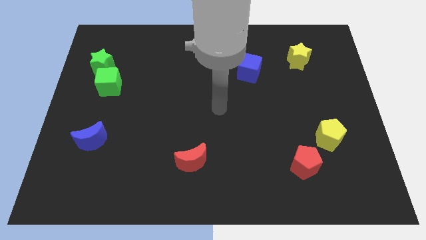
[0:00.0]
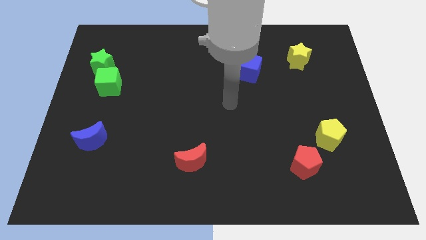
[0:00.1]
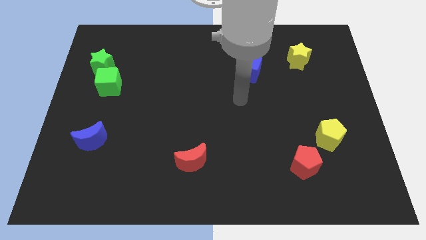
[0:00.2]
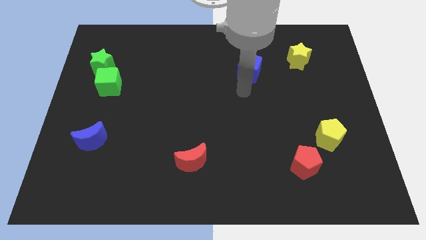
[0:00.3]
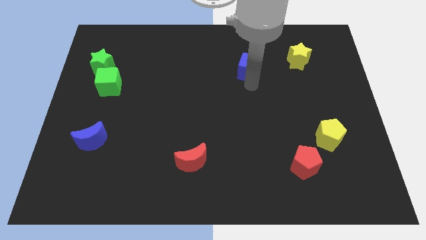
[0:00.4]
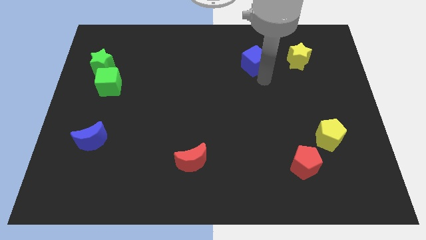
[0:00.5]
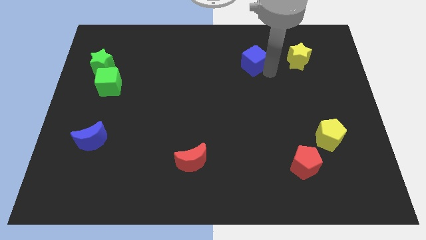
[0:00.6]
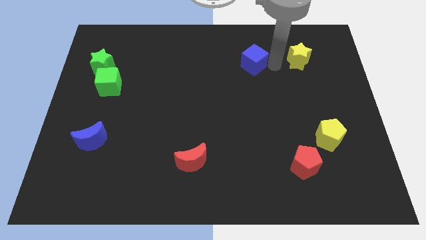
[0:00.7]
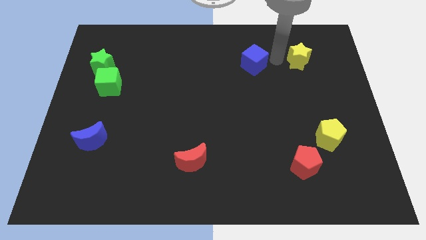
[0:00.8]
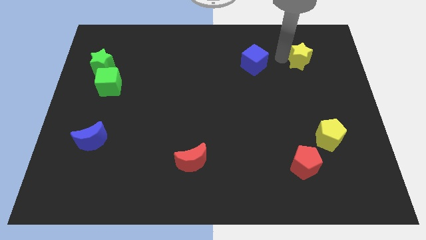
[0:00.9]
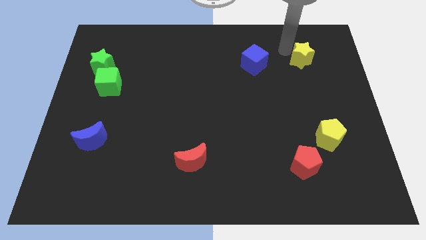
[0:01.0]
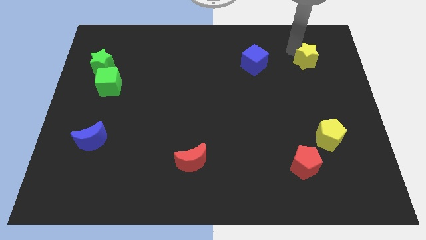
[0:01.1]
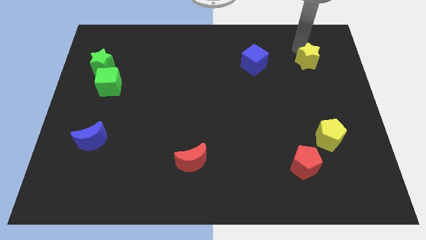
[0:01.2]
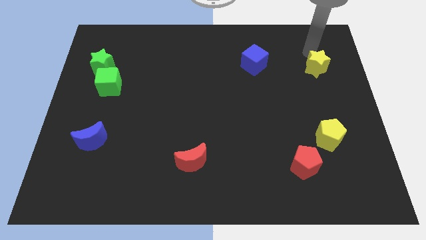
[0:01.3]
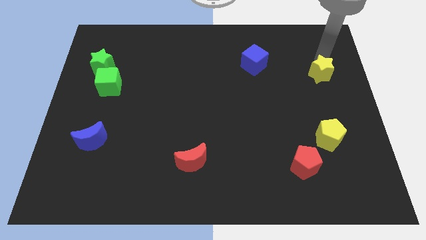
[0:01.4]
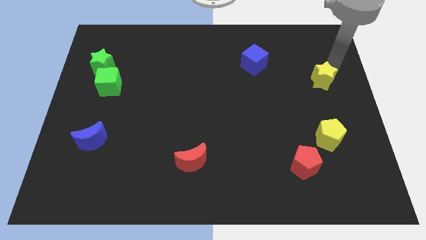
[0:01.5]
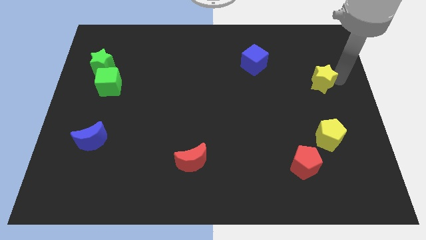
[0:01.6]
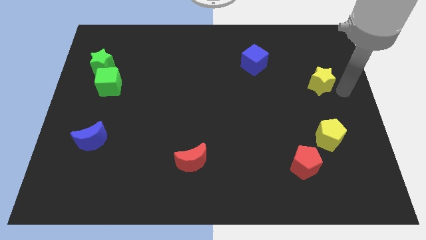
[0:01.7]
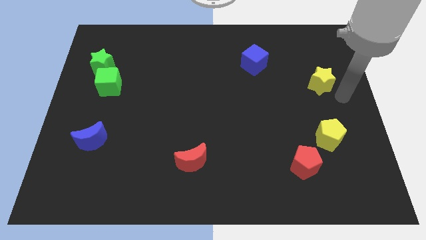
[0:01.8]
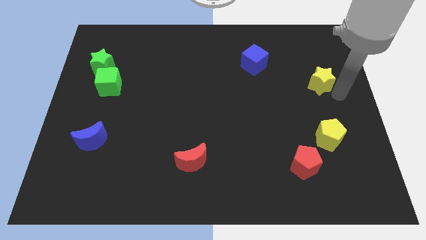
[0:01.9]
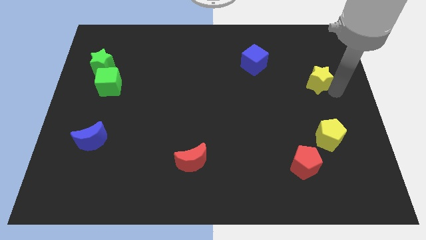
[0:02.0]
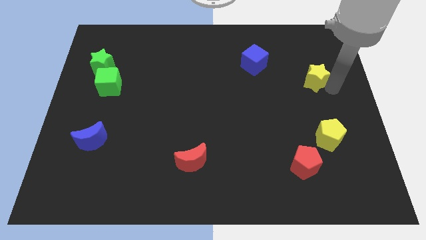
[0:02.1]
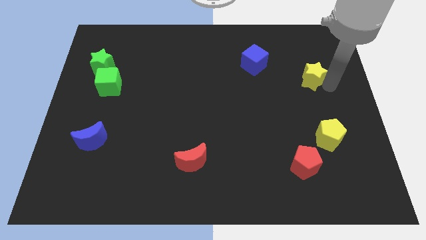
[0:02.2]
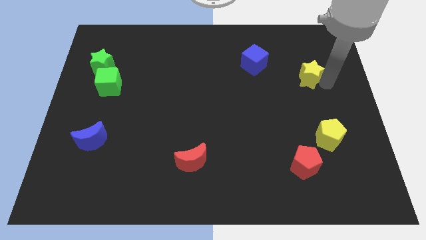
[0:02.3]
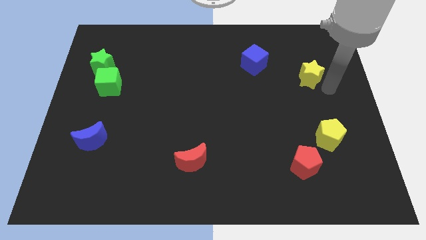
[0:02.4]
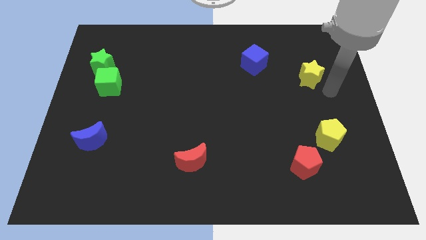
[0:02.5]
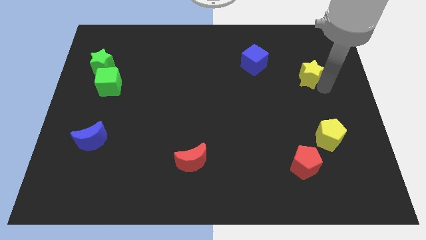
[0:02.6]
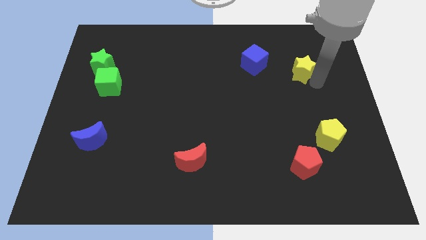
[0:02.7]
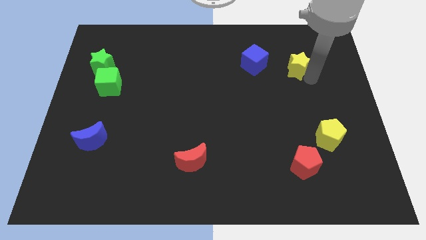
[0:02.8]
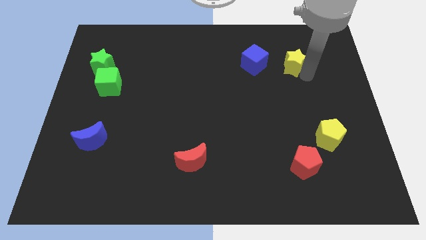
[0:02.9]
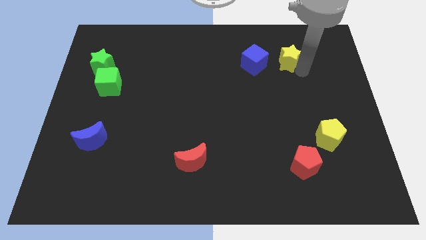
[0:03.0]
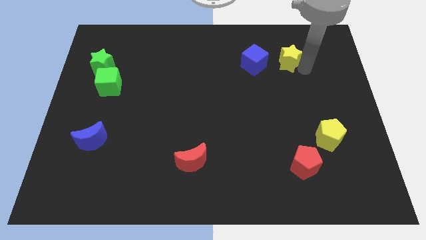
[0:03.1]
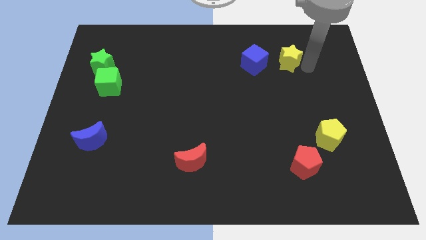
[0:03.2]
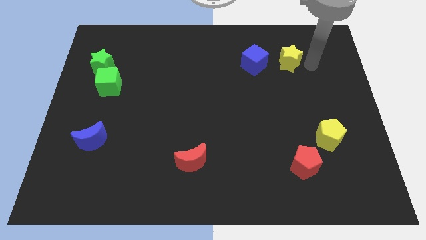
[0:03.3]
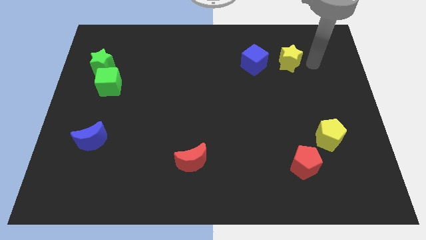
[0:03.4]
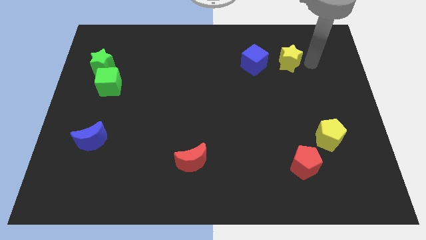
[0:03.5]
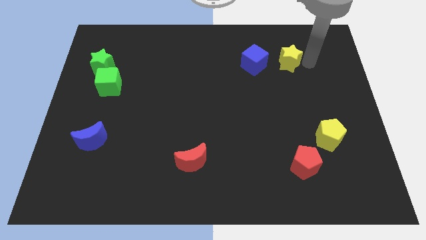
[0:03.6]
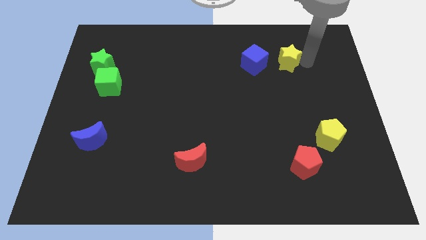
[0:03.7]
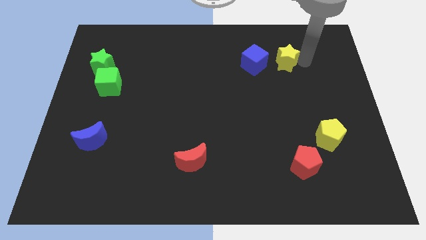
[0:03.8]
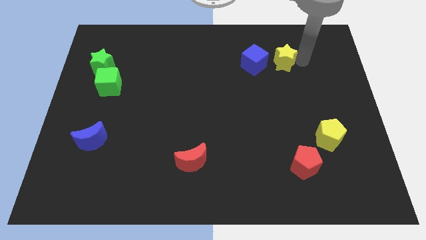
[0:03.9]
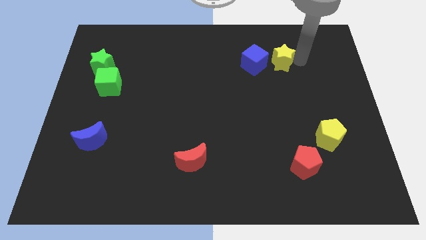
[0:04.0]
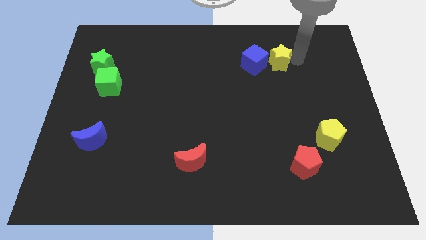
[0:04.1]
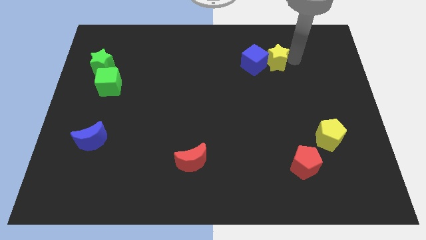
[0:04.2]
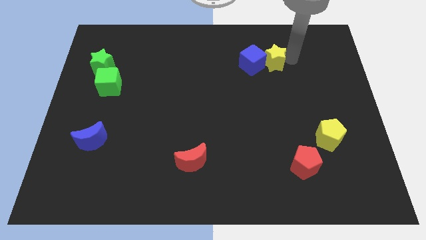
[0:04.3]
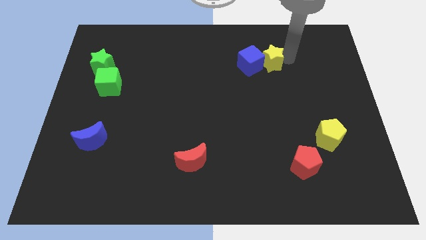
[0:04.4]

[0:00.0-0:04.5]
slide the yellow star to the left slightly

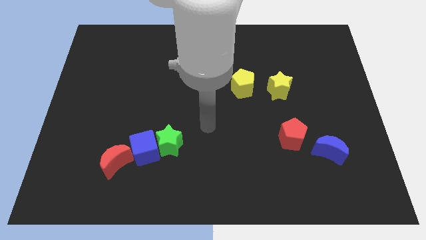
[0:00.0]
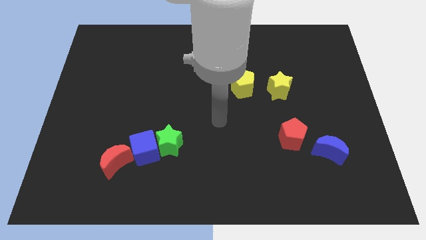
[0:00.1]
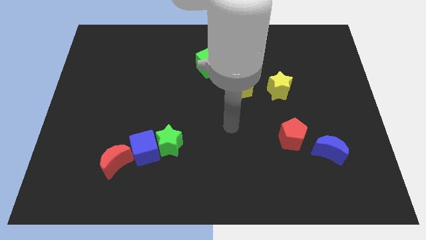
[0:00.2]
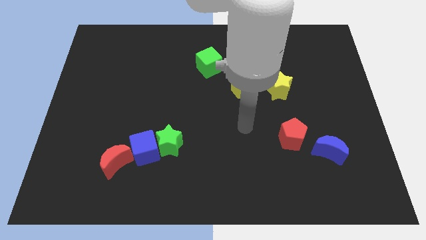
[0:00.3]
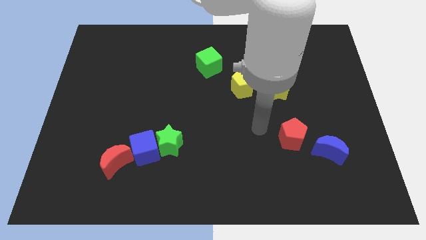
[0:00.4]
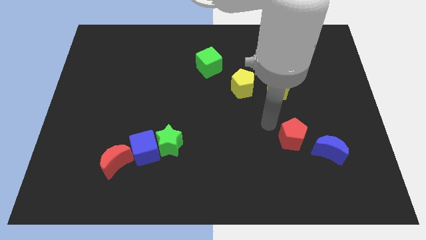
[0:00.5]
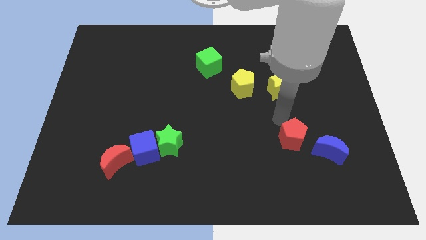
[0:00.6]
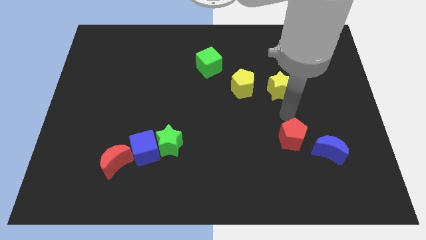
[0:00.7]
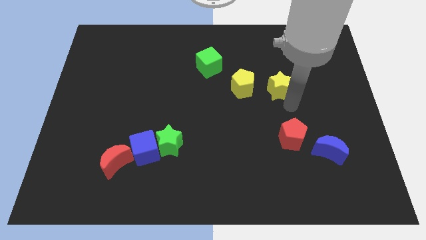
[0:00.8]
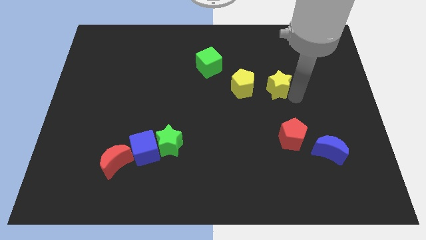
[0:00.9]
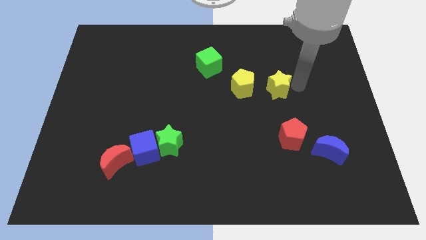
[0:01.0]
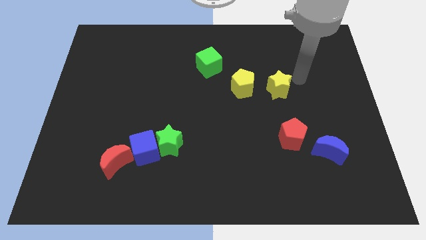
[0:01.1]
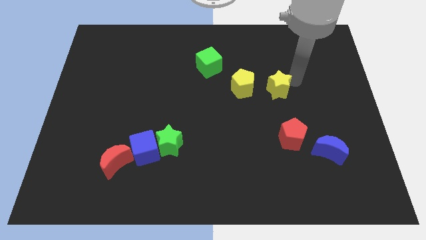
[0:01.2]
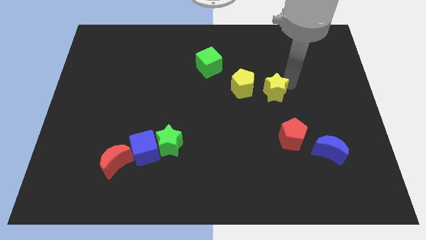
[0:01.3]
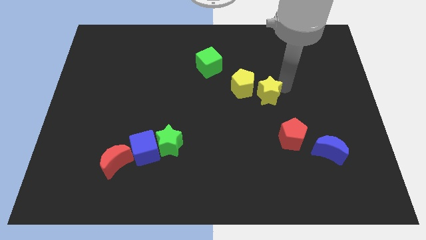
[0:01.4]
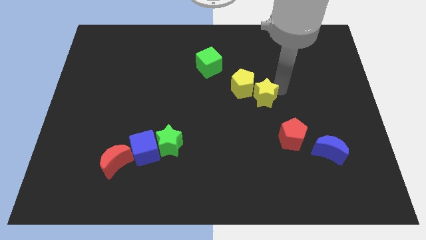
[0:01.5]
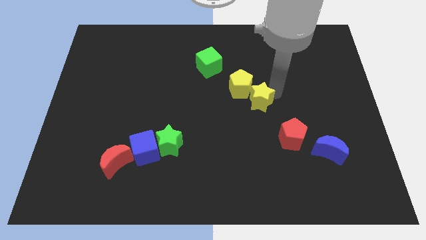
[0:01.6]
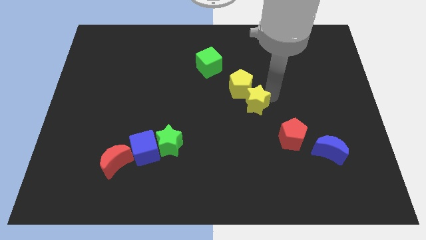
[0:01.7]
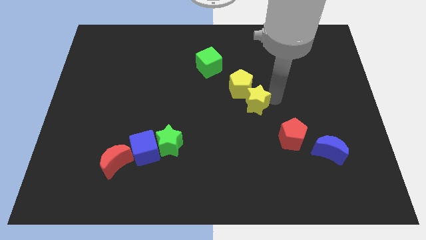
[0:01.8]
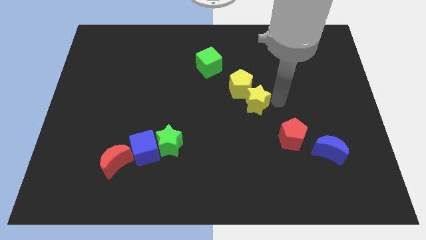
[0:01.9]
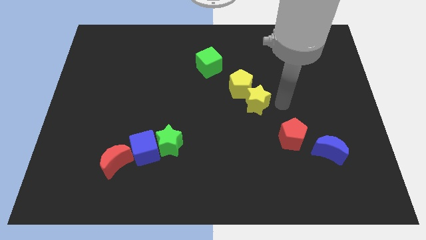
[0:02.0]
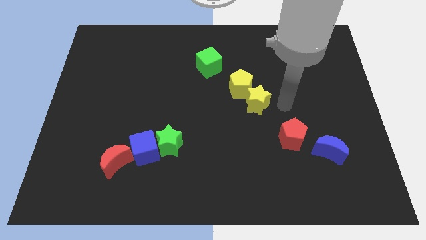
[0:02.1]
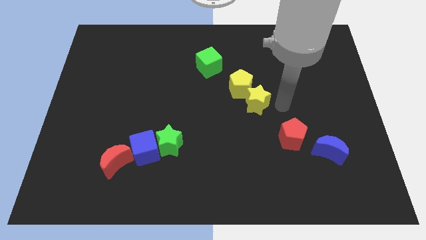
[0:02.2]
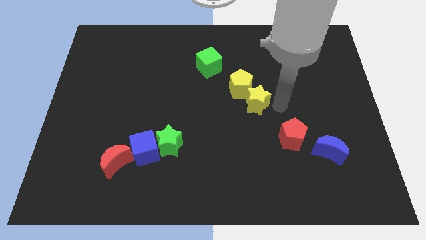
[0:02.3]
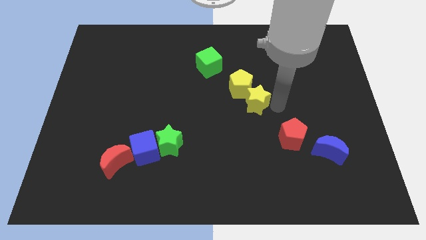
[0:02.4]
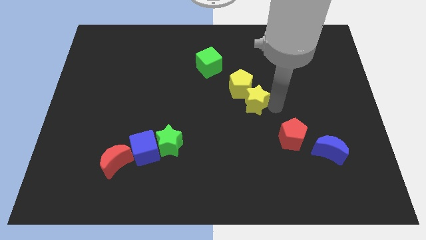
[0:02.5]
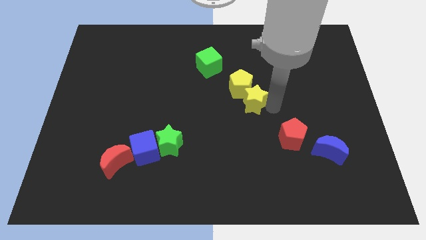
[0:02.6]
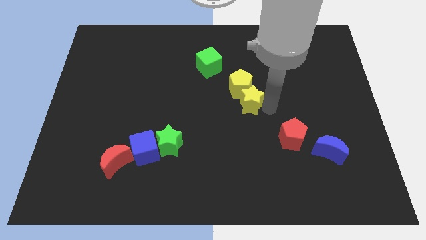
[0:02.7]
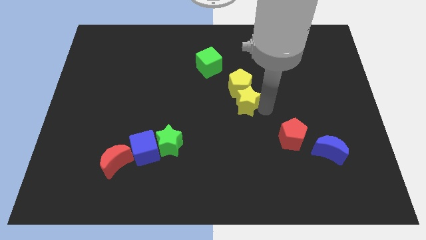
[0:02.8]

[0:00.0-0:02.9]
slide the yellow star slightly left
